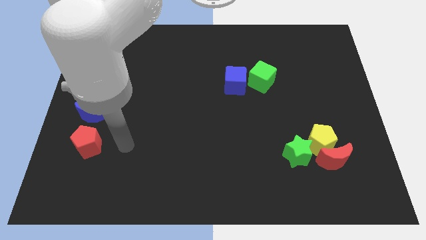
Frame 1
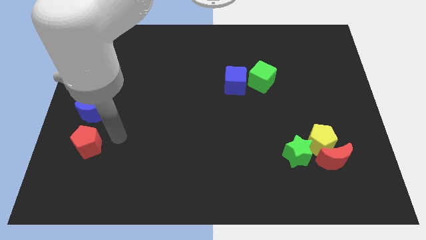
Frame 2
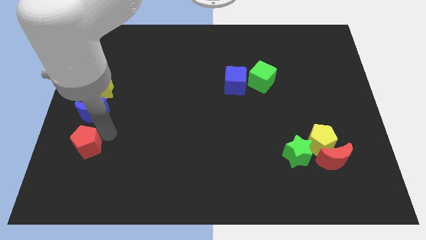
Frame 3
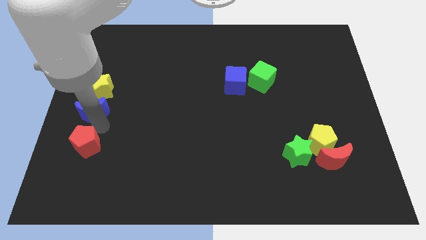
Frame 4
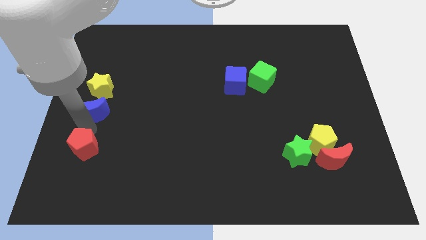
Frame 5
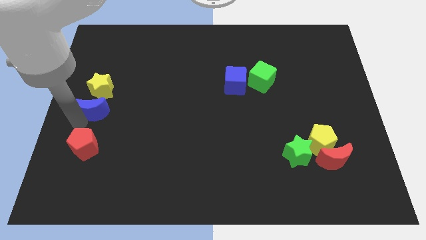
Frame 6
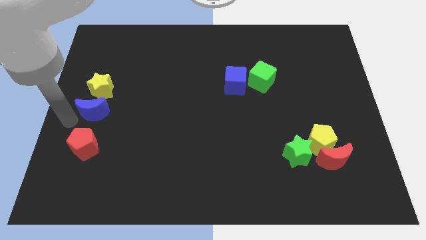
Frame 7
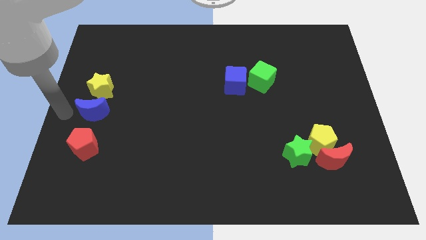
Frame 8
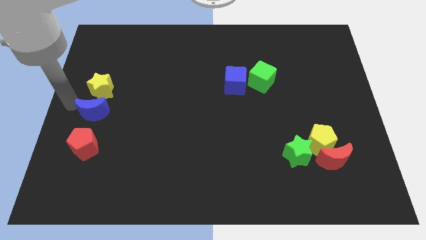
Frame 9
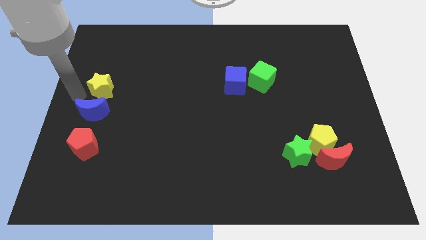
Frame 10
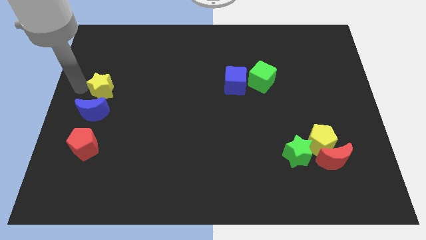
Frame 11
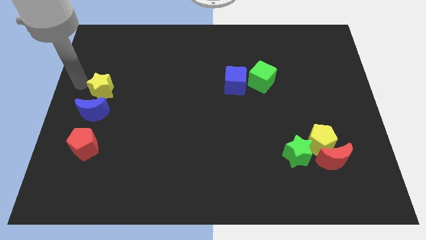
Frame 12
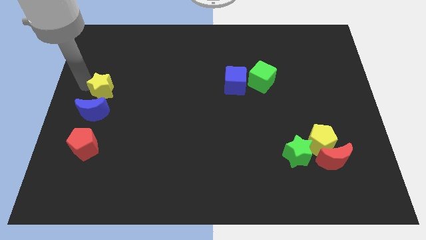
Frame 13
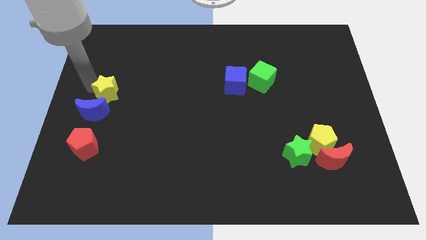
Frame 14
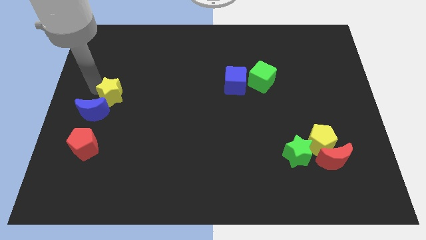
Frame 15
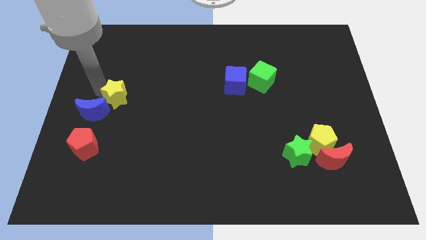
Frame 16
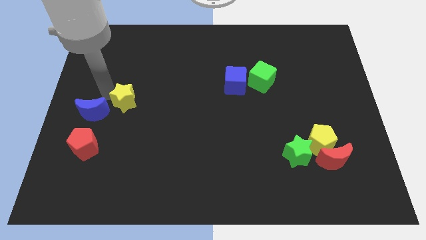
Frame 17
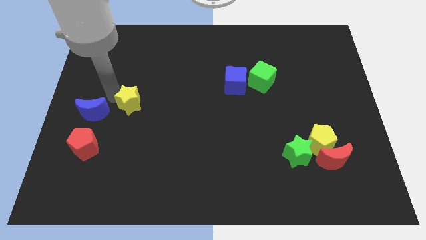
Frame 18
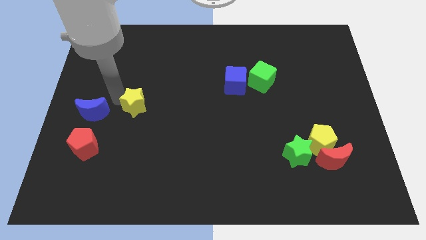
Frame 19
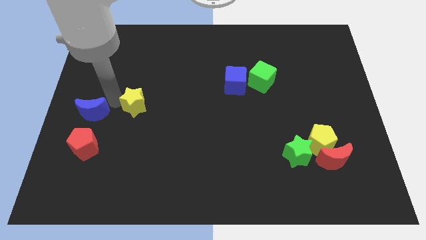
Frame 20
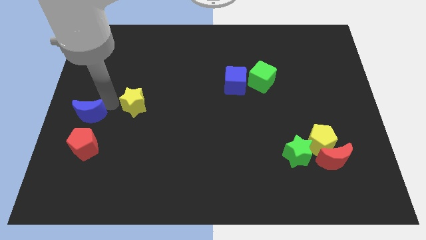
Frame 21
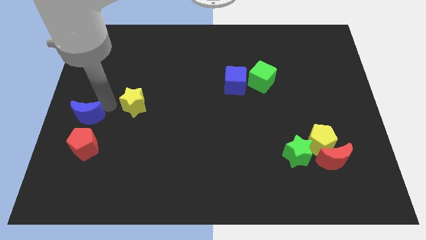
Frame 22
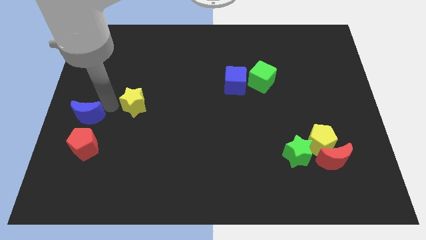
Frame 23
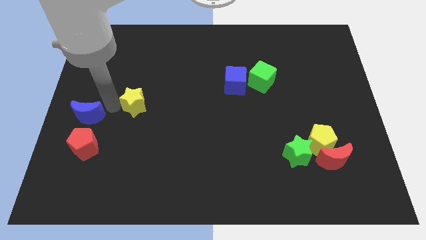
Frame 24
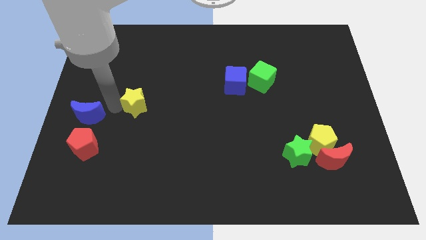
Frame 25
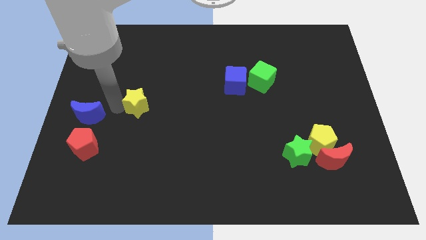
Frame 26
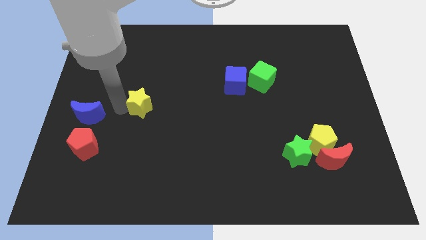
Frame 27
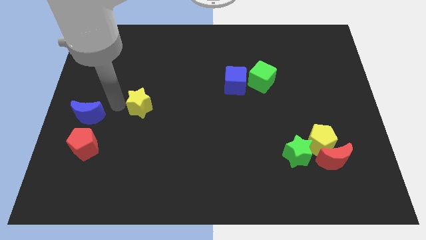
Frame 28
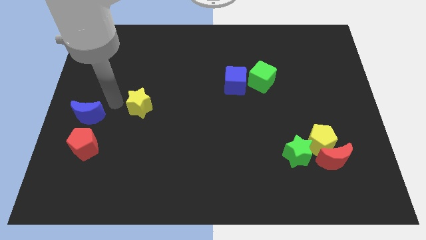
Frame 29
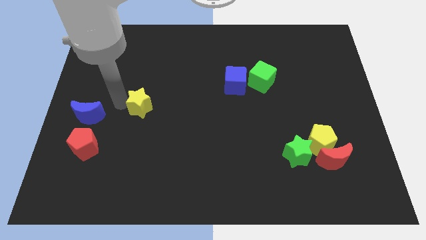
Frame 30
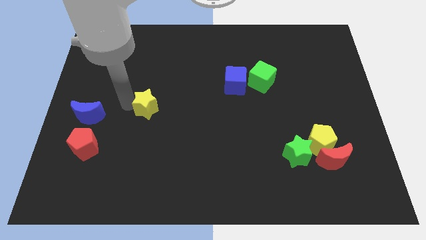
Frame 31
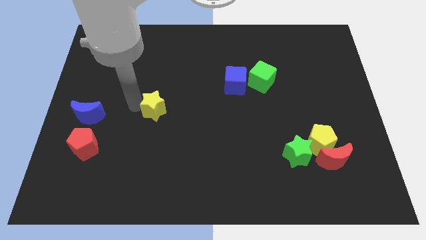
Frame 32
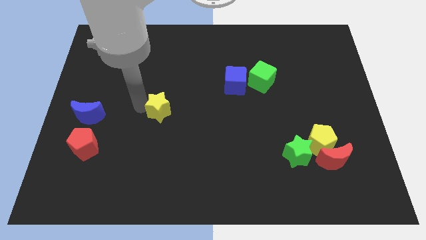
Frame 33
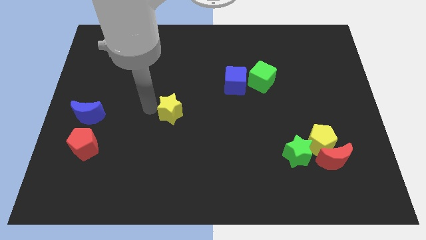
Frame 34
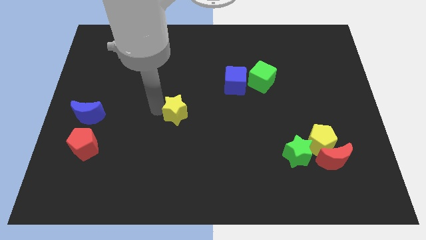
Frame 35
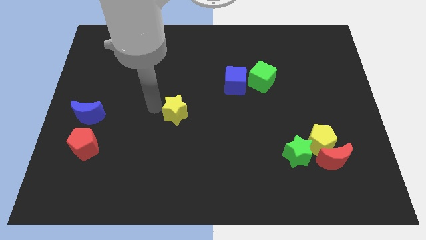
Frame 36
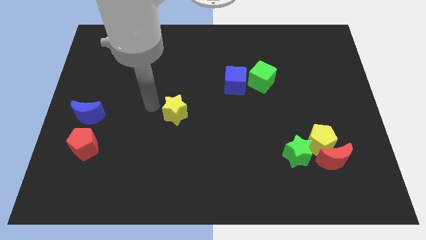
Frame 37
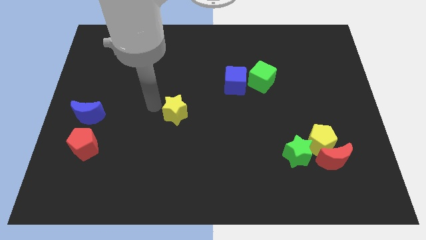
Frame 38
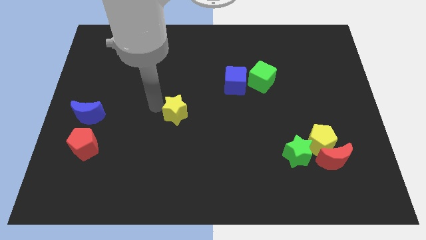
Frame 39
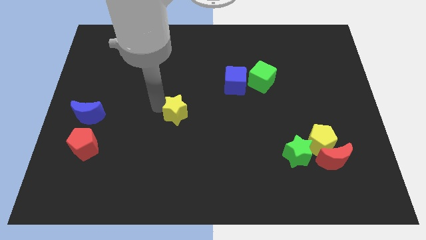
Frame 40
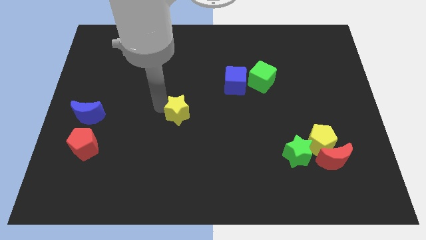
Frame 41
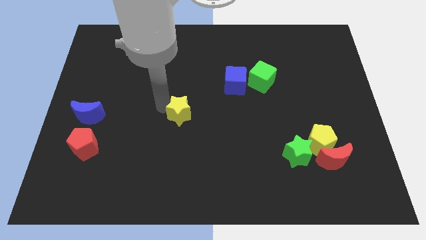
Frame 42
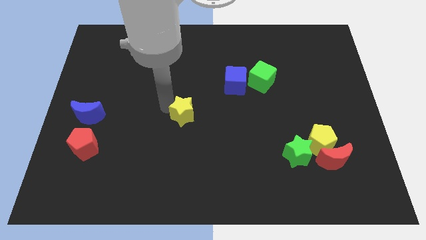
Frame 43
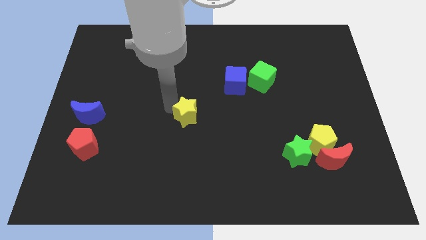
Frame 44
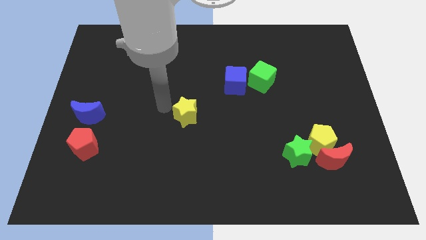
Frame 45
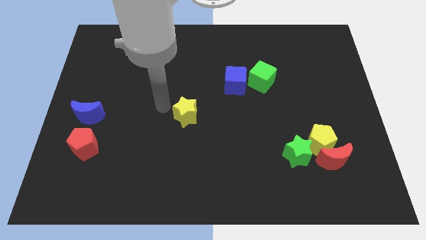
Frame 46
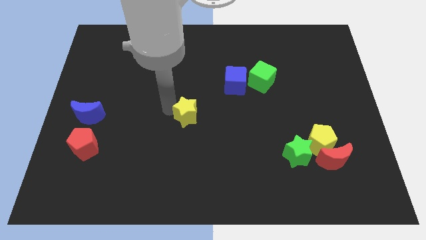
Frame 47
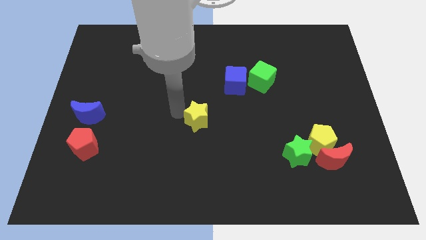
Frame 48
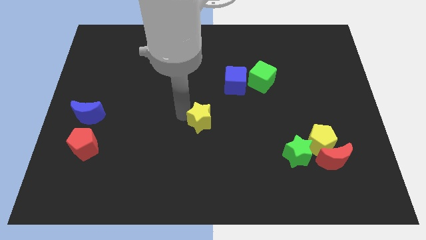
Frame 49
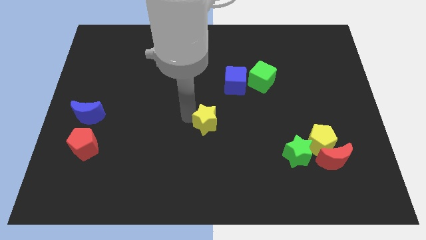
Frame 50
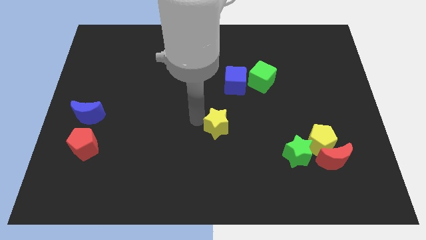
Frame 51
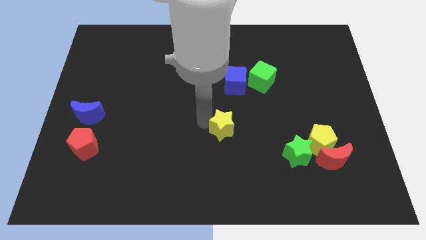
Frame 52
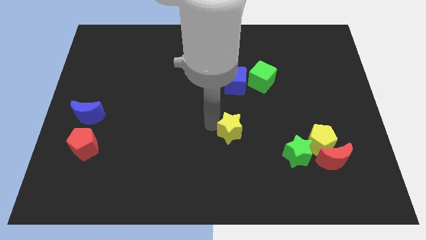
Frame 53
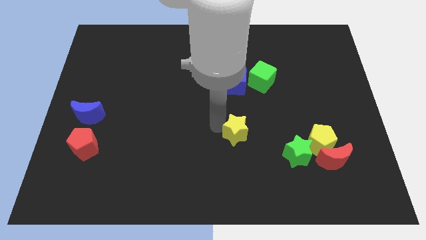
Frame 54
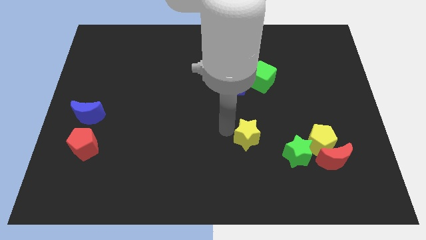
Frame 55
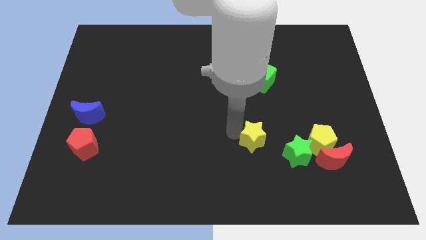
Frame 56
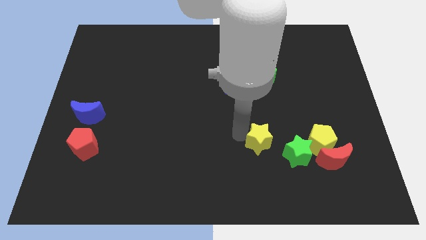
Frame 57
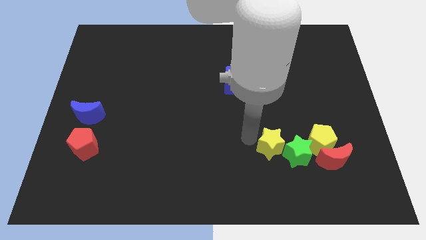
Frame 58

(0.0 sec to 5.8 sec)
put the yellow star close to the green star

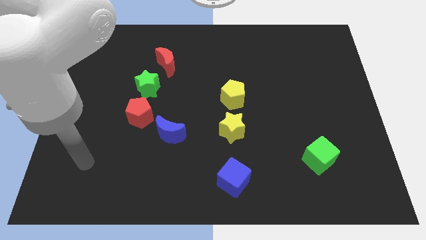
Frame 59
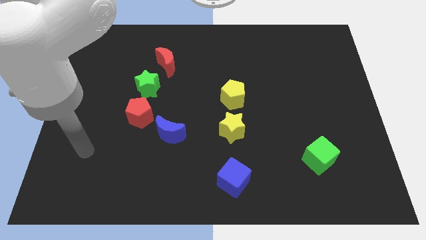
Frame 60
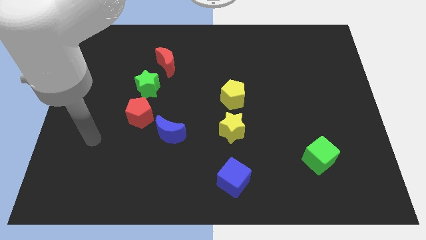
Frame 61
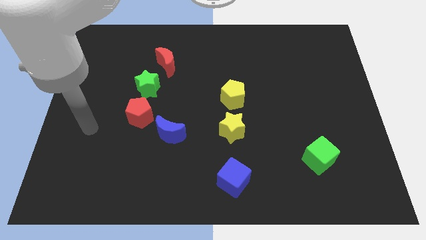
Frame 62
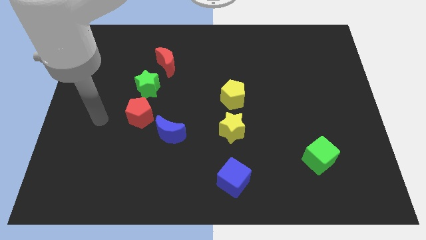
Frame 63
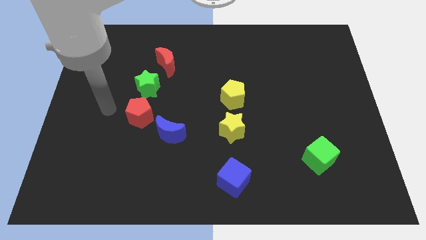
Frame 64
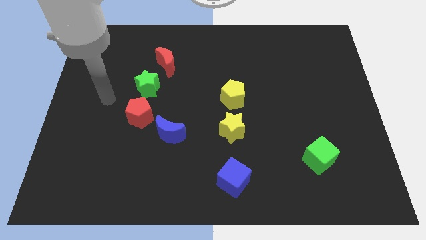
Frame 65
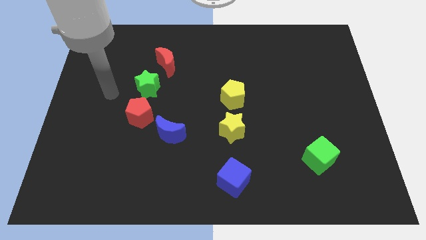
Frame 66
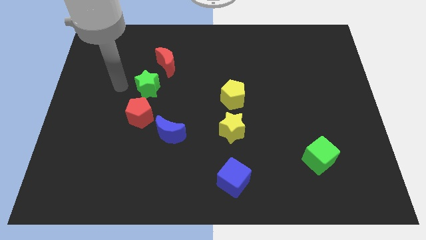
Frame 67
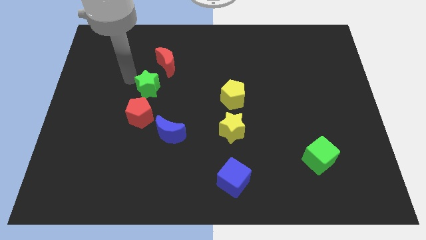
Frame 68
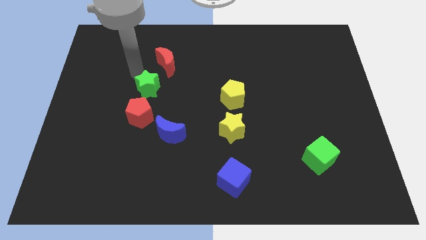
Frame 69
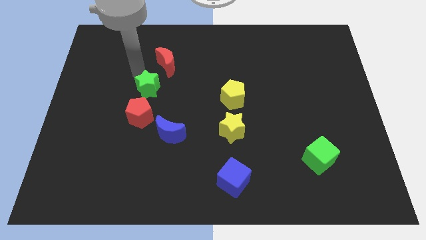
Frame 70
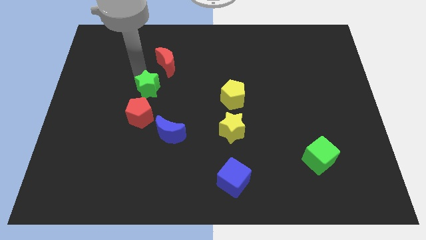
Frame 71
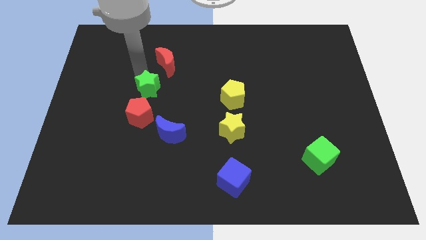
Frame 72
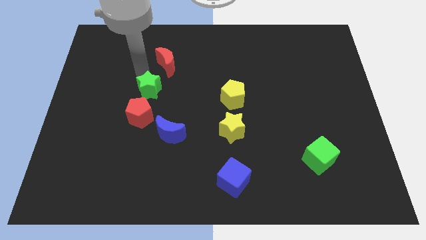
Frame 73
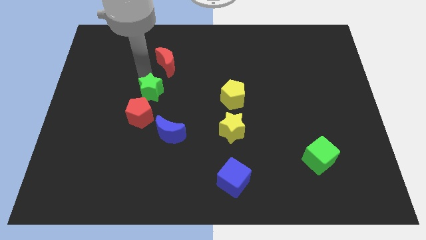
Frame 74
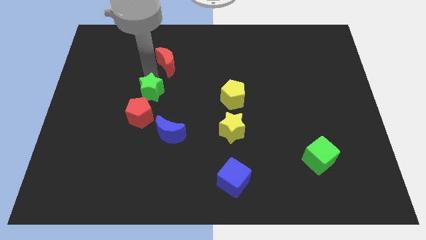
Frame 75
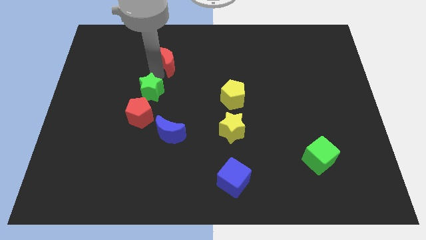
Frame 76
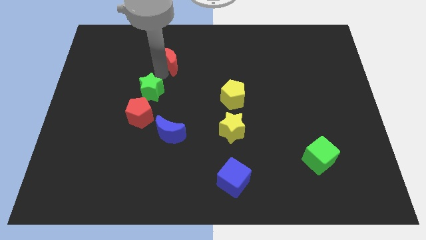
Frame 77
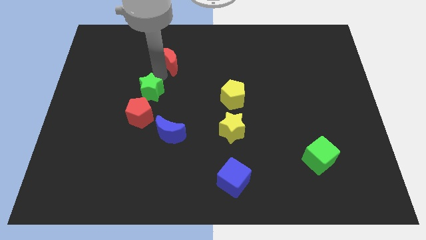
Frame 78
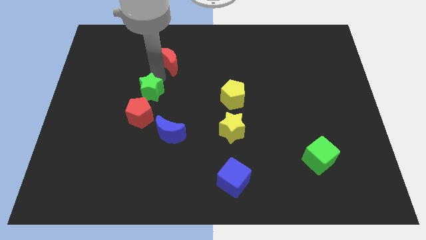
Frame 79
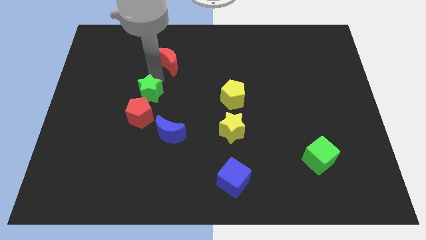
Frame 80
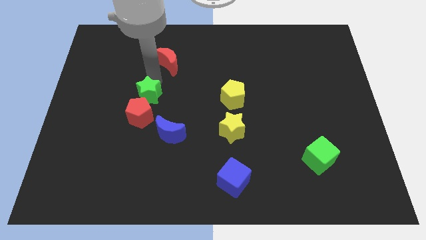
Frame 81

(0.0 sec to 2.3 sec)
slide the green star to the red pentagon
